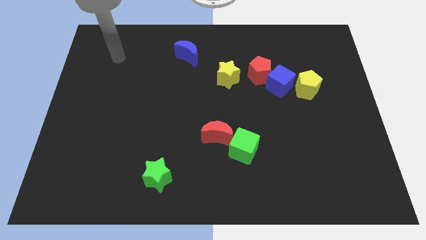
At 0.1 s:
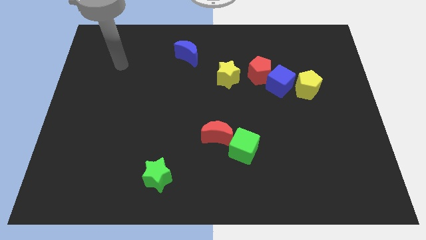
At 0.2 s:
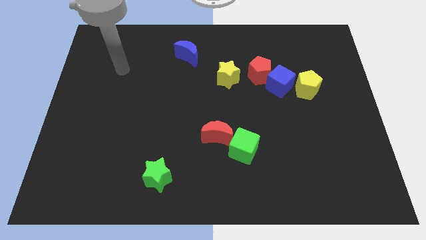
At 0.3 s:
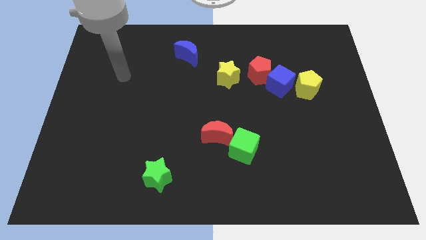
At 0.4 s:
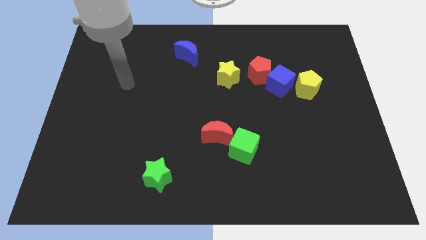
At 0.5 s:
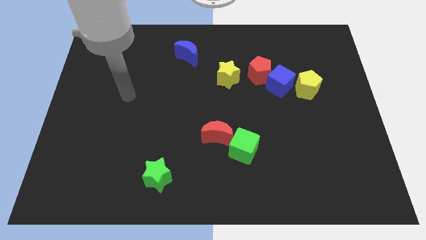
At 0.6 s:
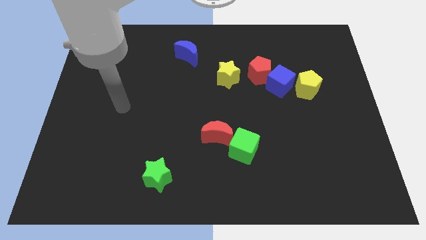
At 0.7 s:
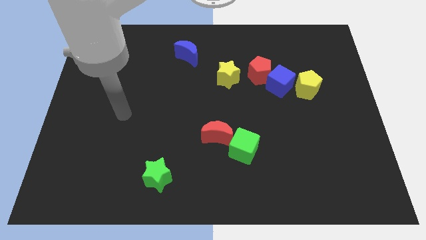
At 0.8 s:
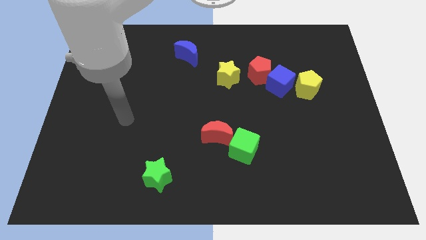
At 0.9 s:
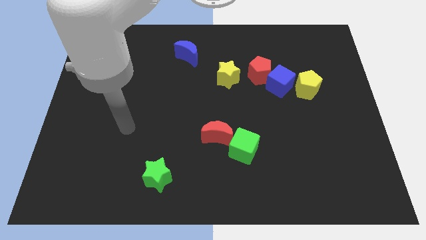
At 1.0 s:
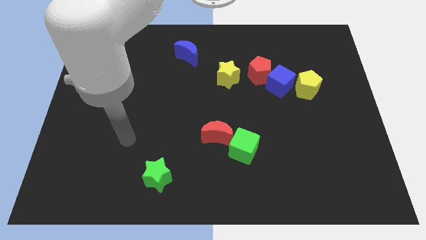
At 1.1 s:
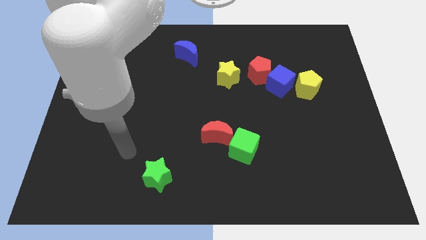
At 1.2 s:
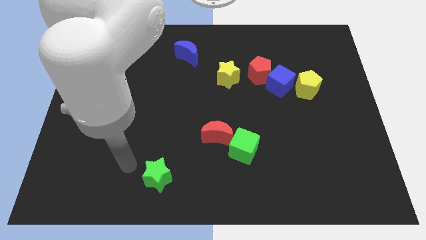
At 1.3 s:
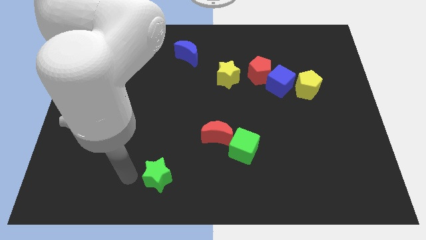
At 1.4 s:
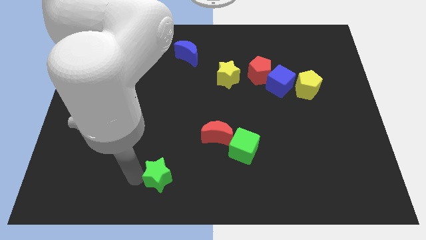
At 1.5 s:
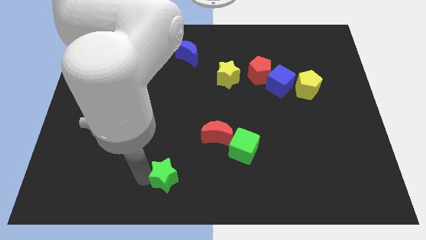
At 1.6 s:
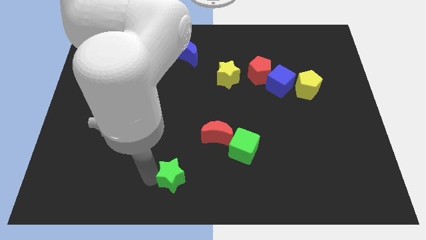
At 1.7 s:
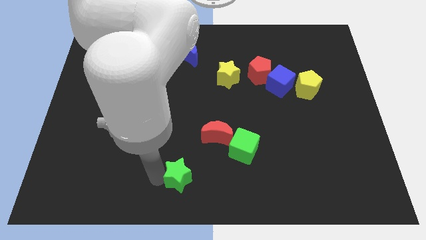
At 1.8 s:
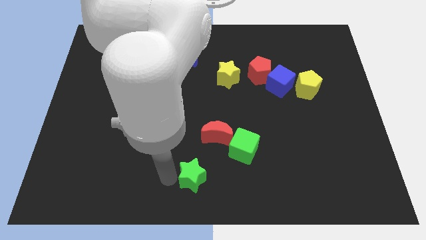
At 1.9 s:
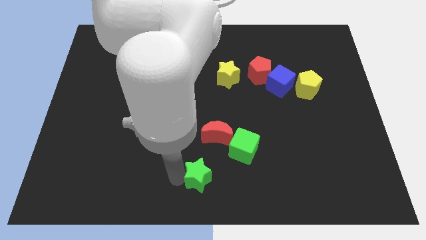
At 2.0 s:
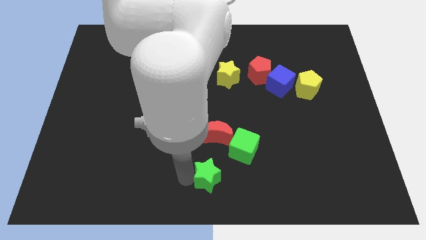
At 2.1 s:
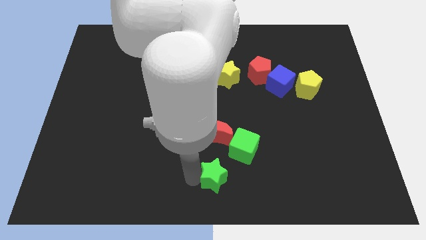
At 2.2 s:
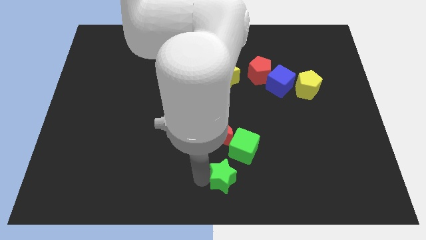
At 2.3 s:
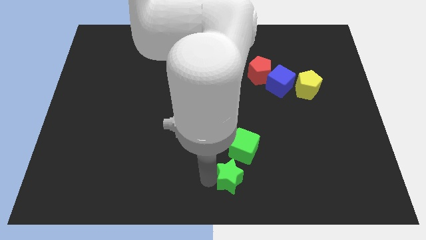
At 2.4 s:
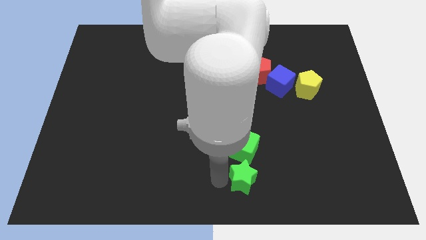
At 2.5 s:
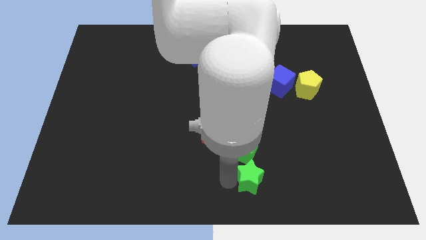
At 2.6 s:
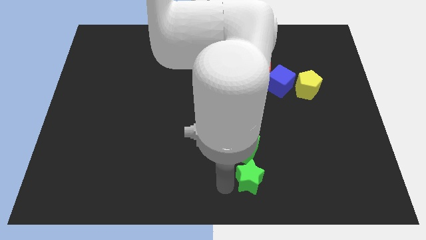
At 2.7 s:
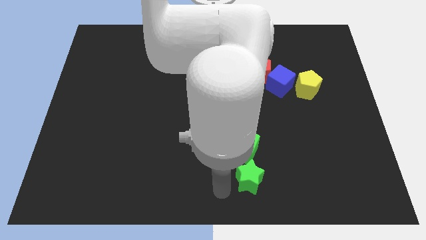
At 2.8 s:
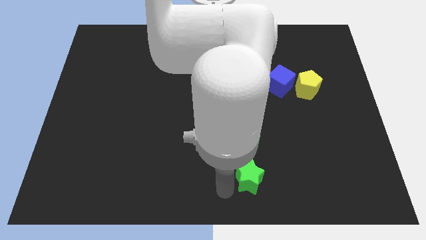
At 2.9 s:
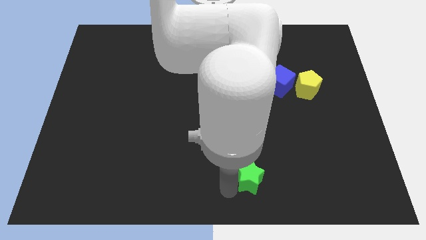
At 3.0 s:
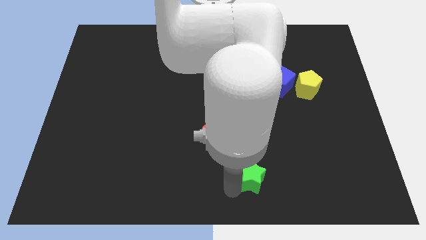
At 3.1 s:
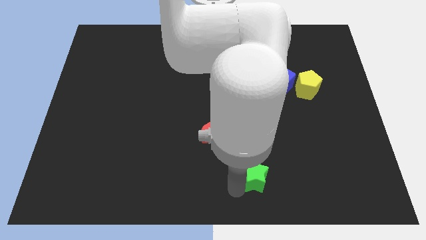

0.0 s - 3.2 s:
move the green star right

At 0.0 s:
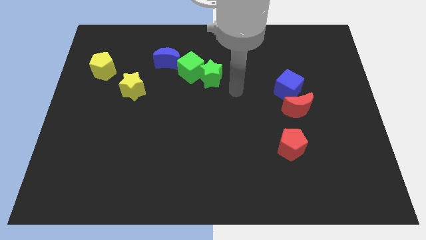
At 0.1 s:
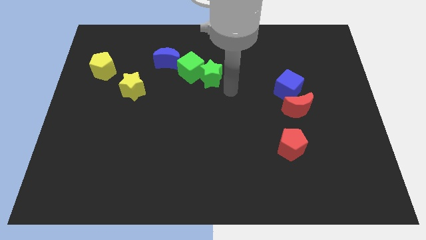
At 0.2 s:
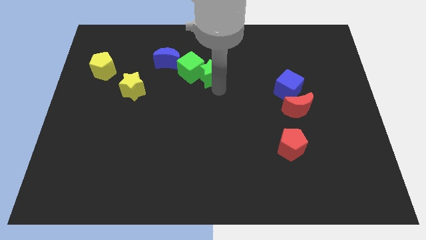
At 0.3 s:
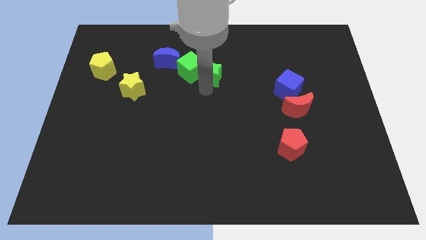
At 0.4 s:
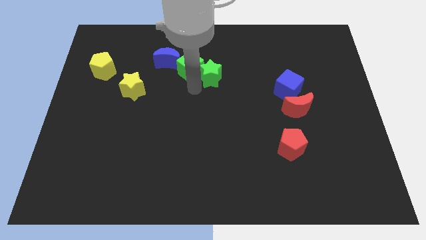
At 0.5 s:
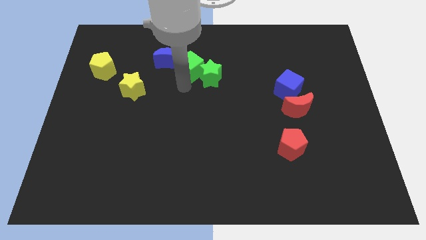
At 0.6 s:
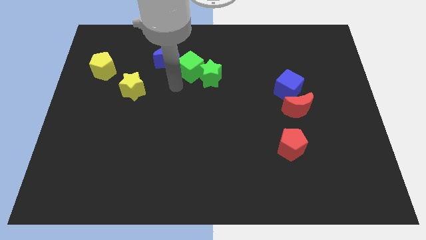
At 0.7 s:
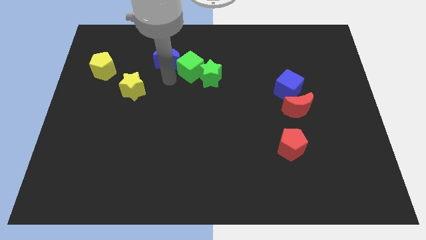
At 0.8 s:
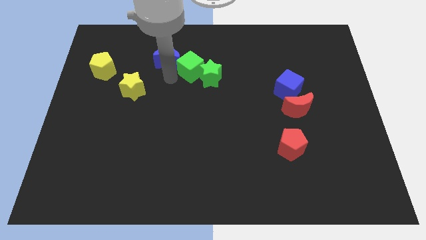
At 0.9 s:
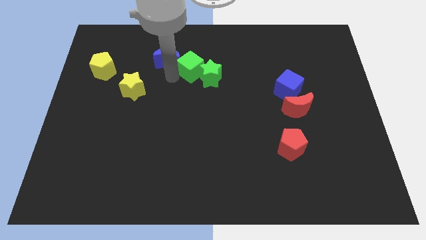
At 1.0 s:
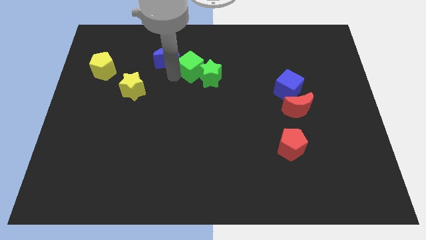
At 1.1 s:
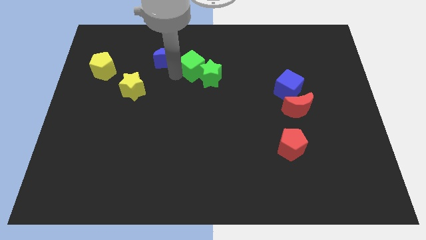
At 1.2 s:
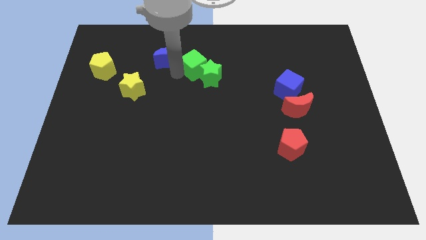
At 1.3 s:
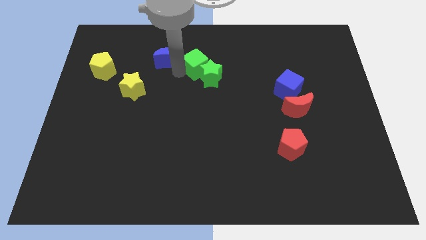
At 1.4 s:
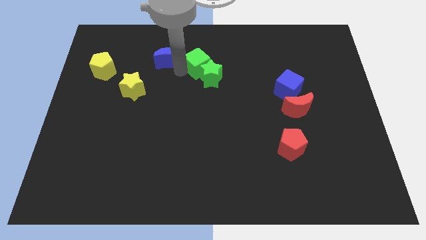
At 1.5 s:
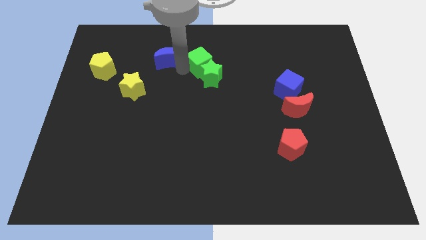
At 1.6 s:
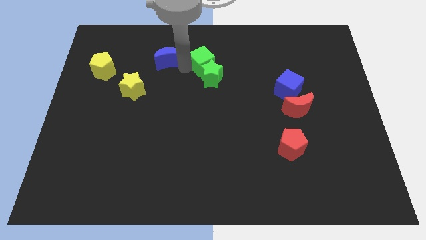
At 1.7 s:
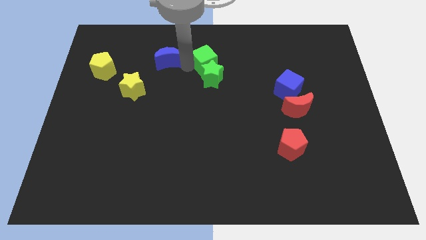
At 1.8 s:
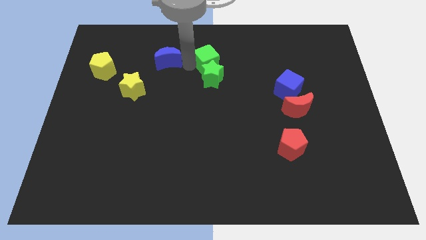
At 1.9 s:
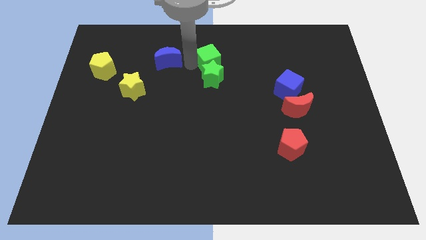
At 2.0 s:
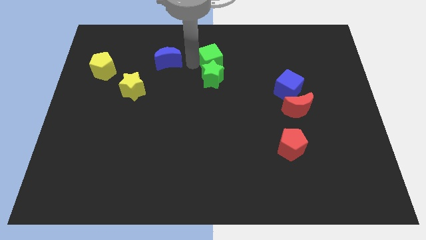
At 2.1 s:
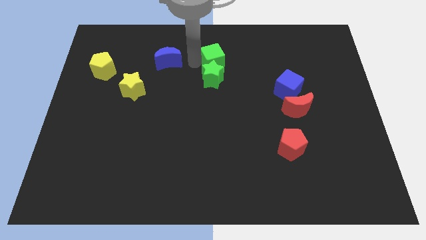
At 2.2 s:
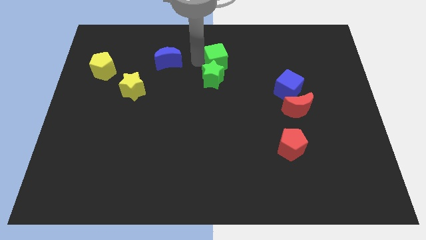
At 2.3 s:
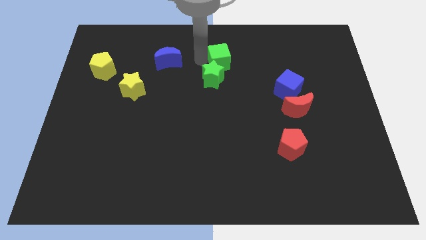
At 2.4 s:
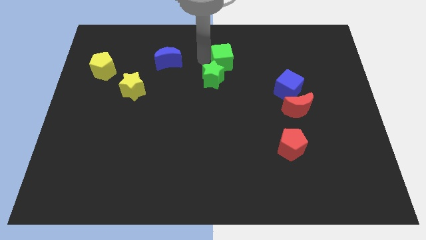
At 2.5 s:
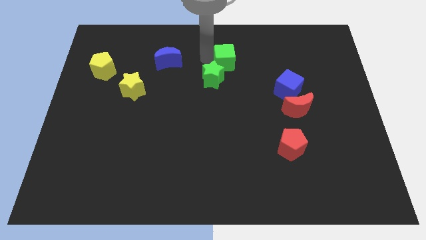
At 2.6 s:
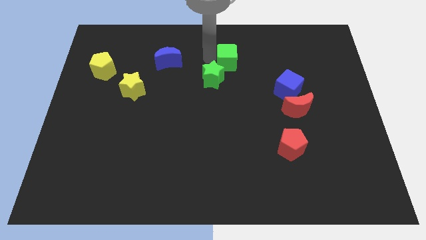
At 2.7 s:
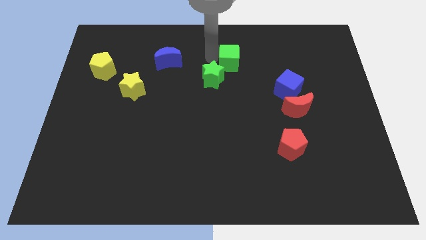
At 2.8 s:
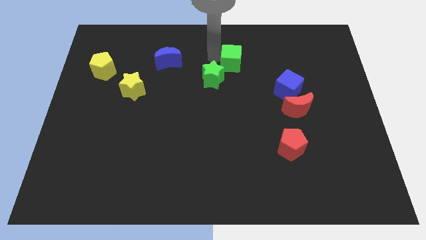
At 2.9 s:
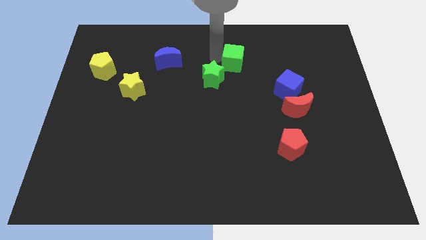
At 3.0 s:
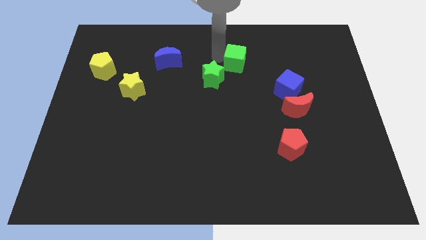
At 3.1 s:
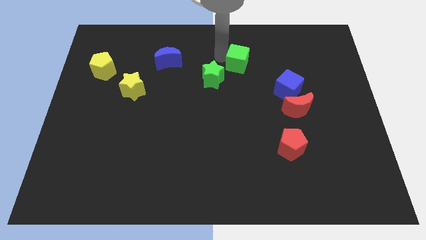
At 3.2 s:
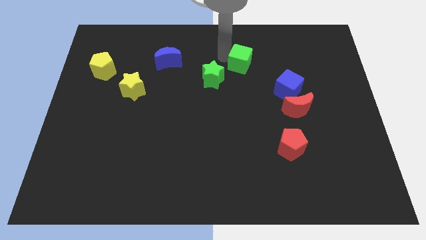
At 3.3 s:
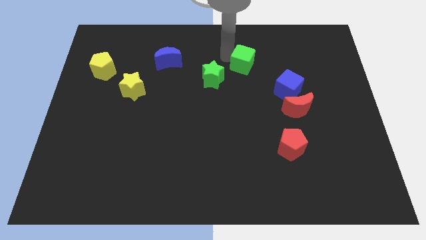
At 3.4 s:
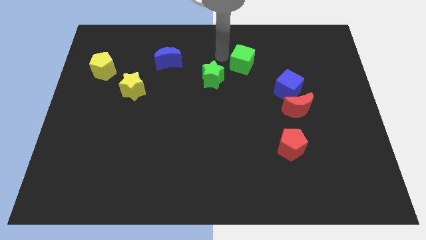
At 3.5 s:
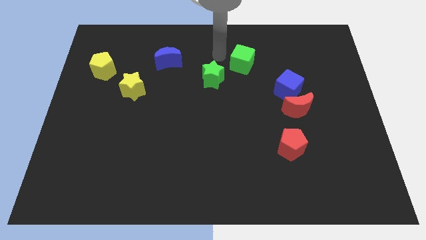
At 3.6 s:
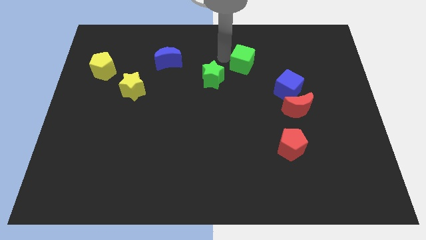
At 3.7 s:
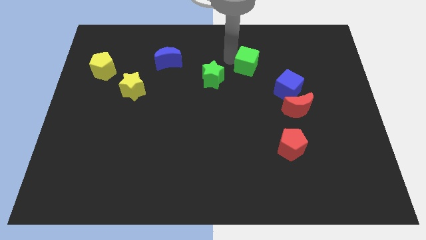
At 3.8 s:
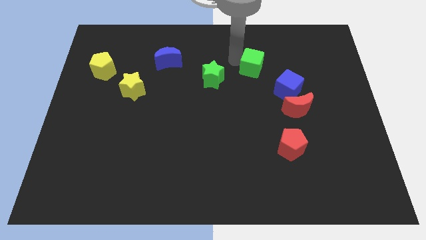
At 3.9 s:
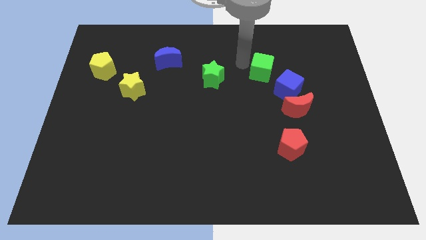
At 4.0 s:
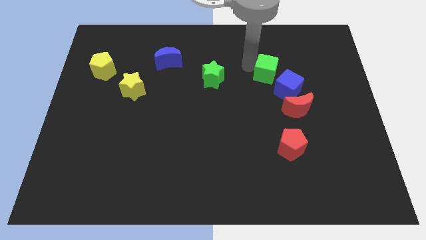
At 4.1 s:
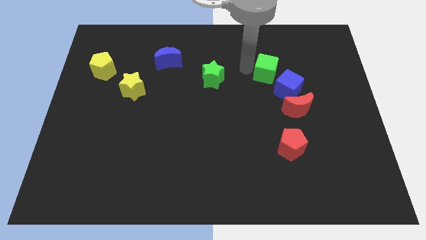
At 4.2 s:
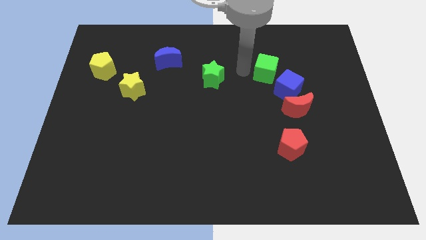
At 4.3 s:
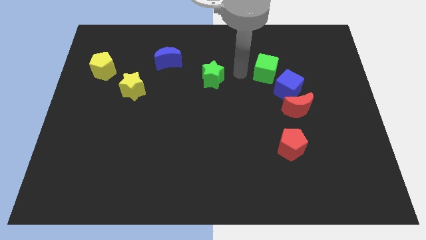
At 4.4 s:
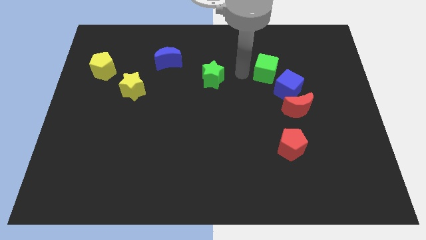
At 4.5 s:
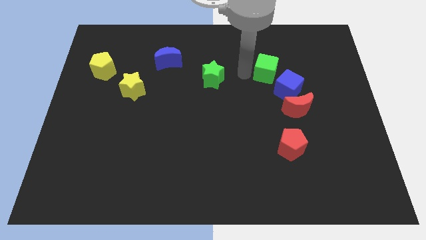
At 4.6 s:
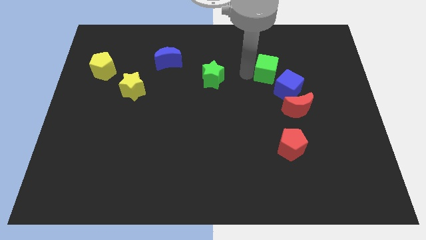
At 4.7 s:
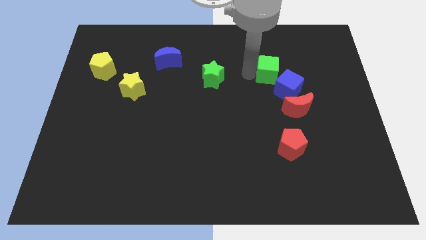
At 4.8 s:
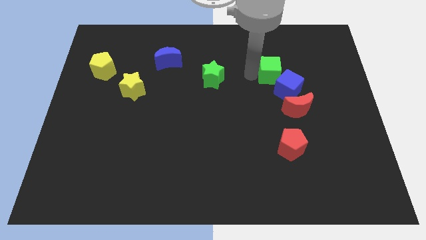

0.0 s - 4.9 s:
slide the green cube right

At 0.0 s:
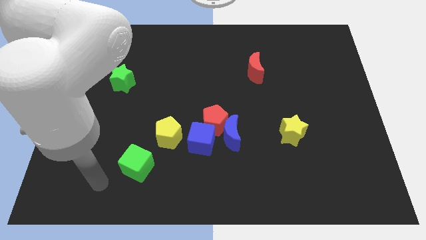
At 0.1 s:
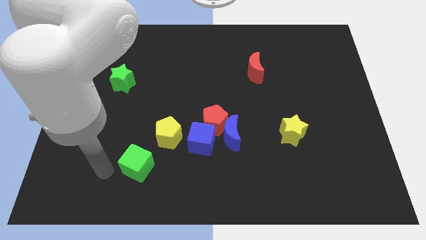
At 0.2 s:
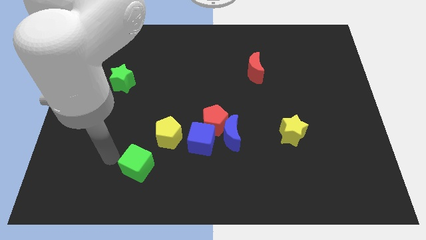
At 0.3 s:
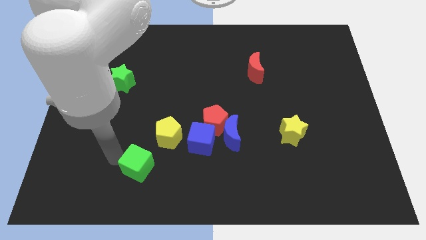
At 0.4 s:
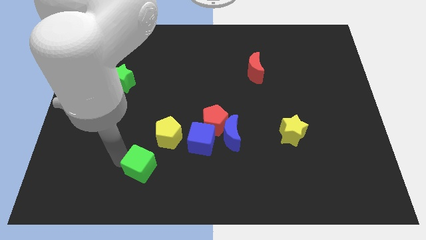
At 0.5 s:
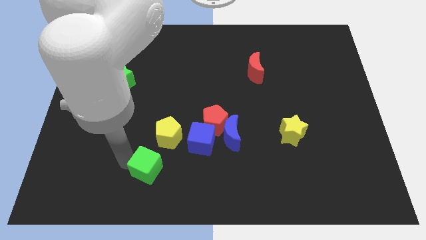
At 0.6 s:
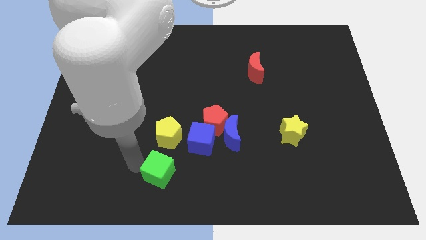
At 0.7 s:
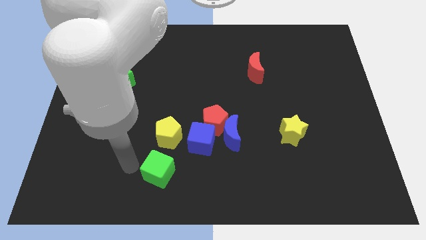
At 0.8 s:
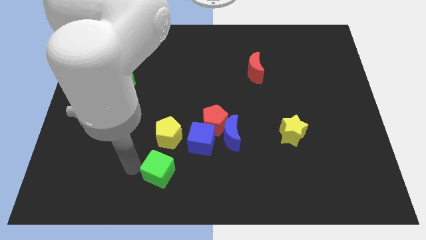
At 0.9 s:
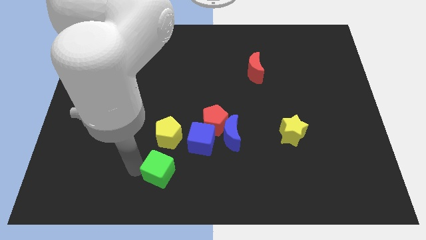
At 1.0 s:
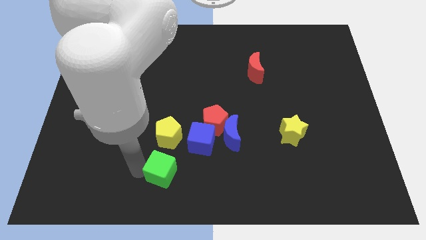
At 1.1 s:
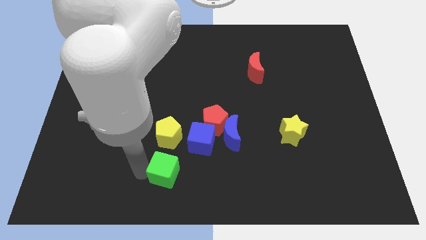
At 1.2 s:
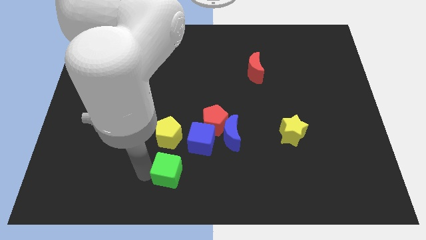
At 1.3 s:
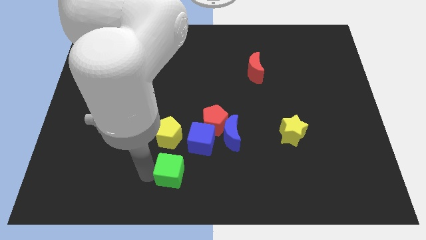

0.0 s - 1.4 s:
slide the green cube to the right somewhat
